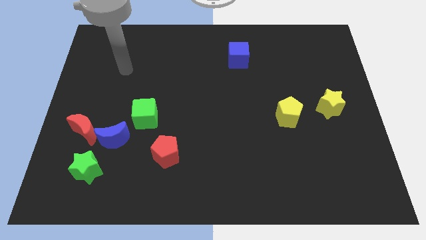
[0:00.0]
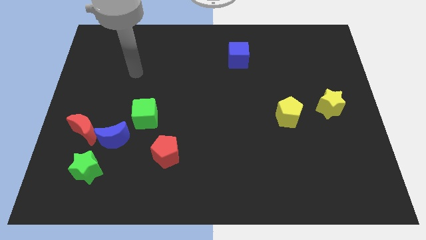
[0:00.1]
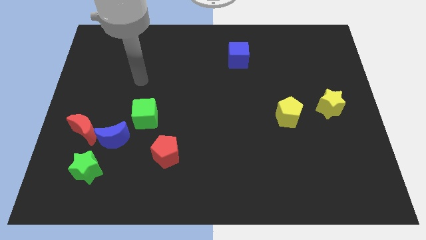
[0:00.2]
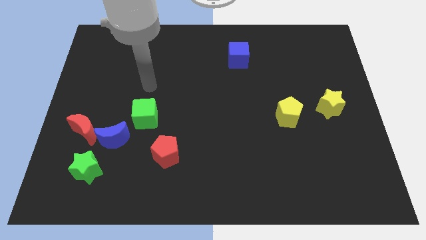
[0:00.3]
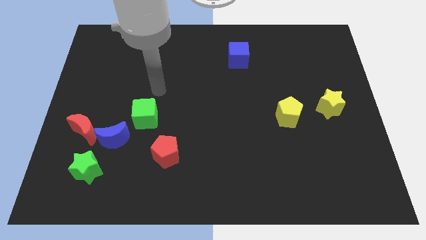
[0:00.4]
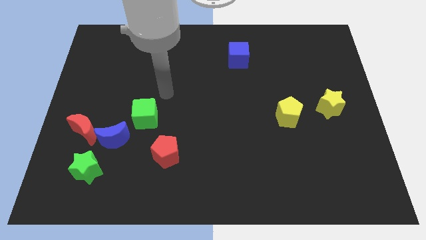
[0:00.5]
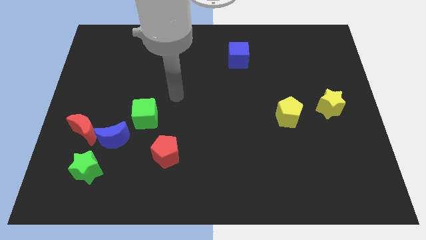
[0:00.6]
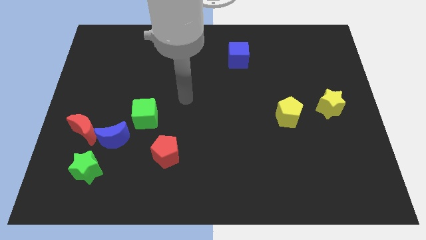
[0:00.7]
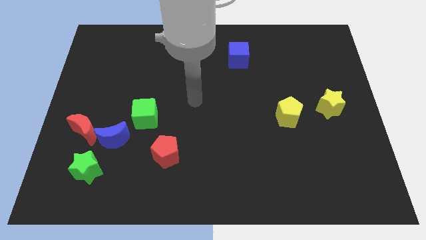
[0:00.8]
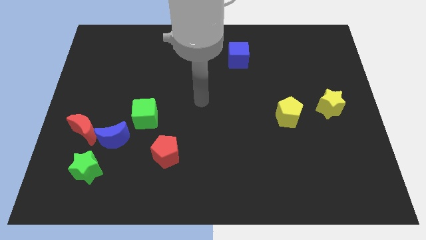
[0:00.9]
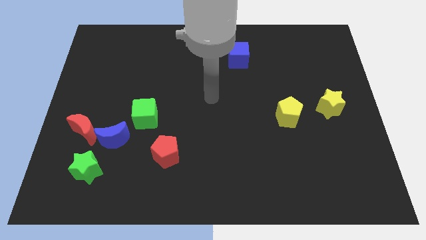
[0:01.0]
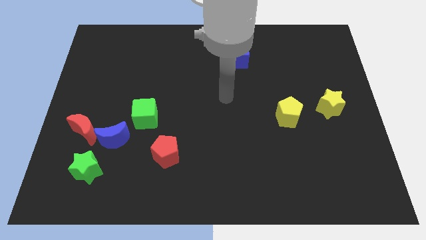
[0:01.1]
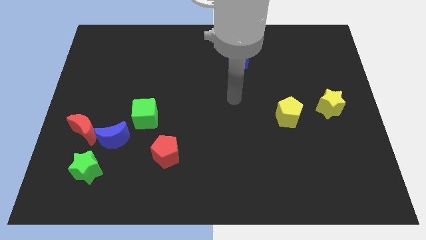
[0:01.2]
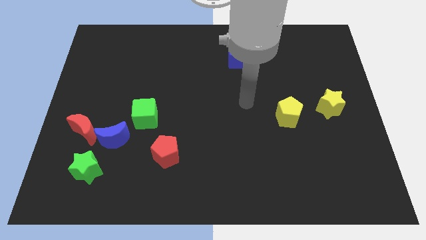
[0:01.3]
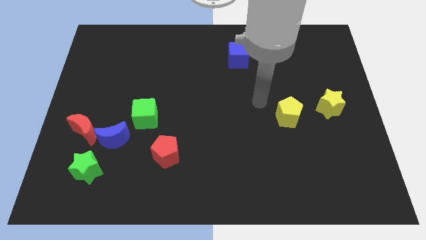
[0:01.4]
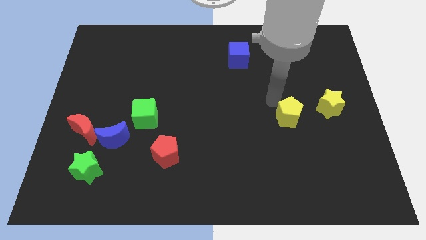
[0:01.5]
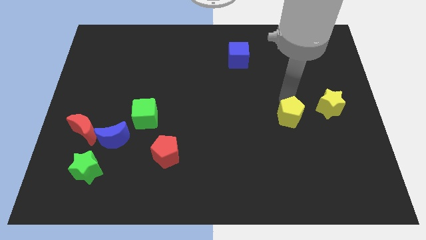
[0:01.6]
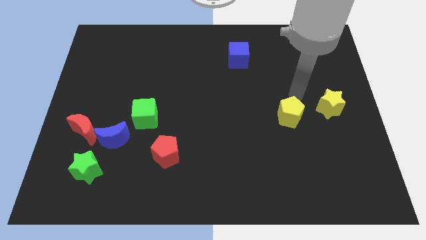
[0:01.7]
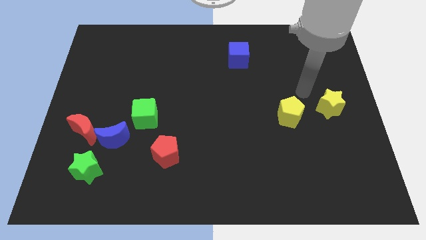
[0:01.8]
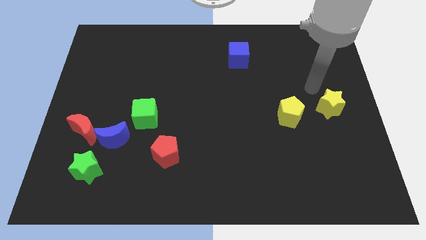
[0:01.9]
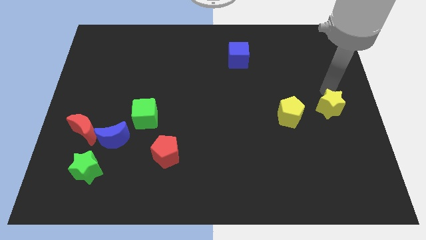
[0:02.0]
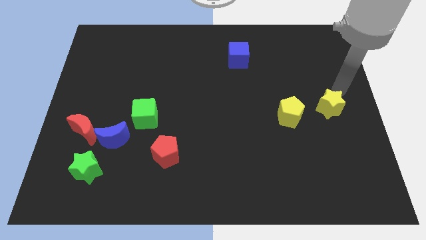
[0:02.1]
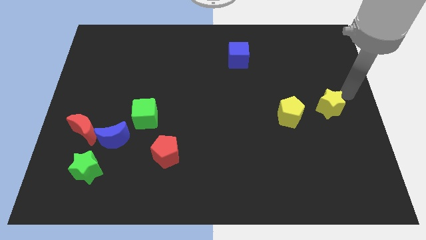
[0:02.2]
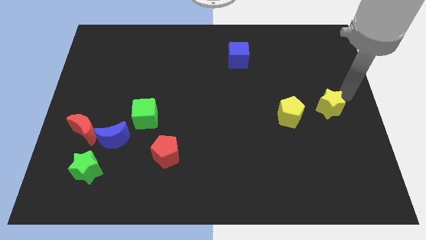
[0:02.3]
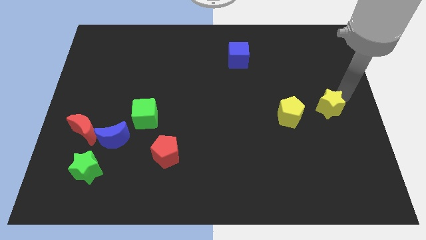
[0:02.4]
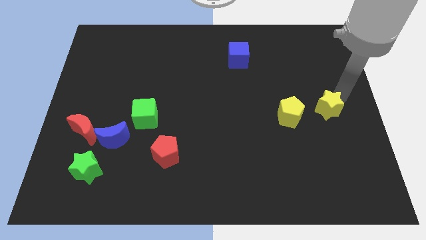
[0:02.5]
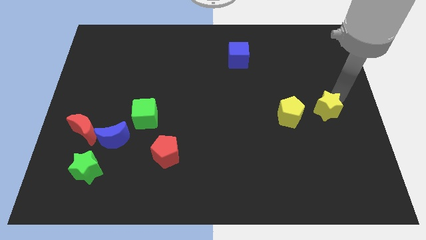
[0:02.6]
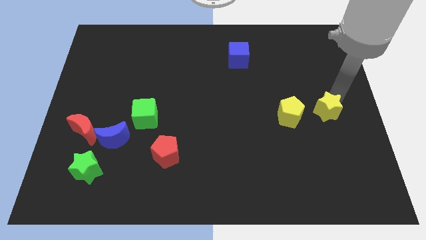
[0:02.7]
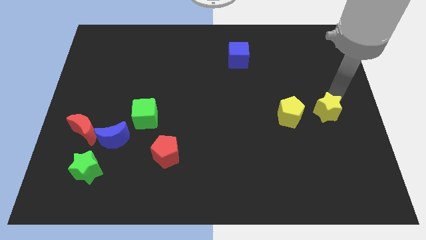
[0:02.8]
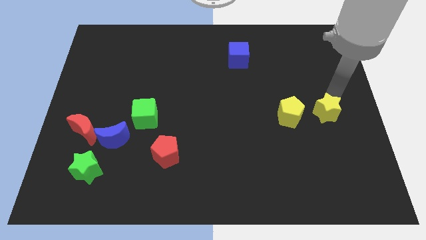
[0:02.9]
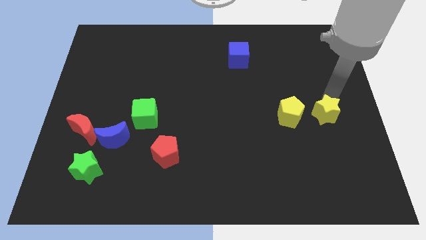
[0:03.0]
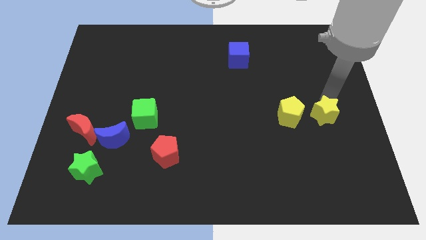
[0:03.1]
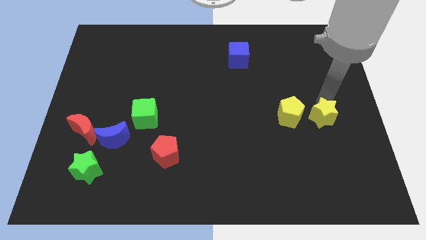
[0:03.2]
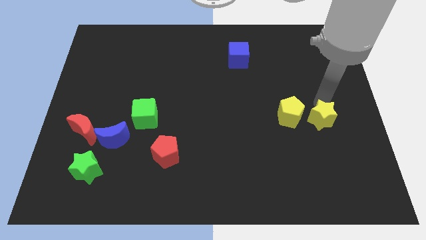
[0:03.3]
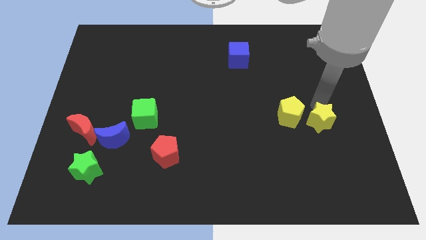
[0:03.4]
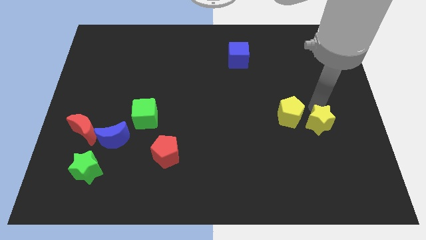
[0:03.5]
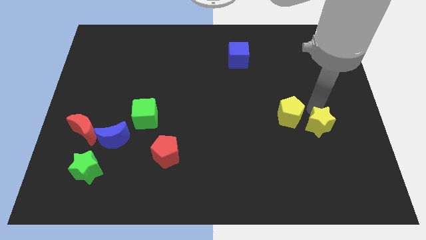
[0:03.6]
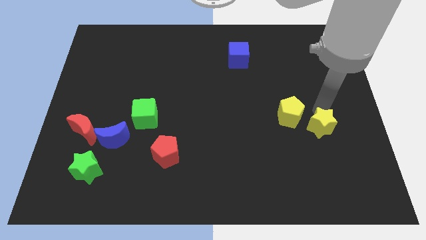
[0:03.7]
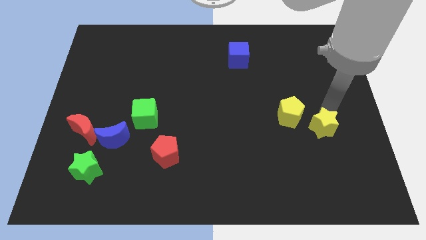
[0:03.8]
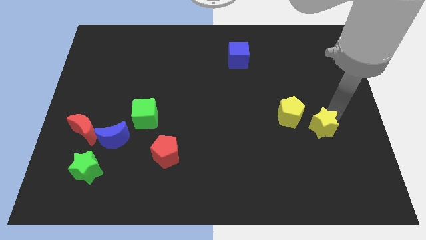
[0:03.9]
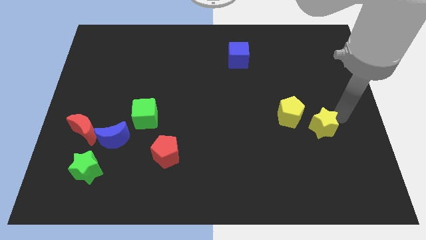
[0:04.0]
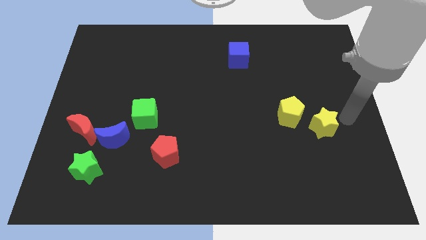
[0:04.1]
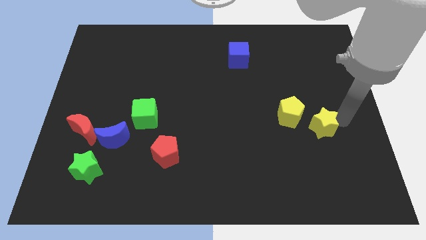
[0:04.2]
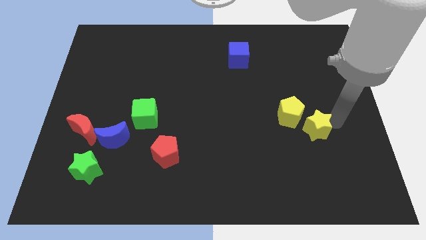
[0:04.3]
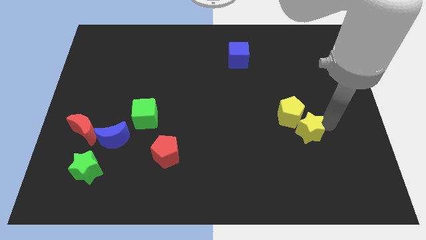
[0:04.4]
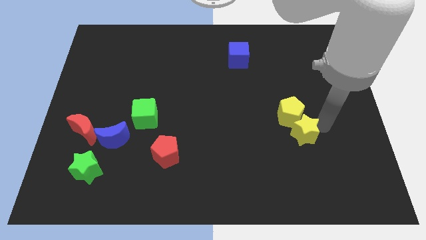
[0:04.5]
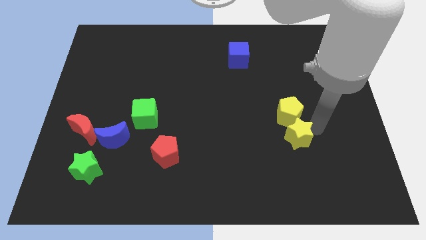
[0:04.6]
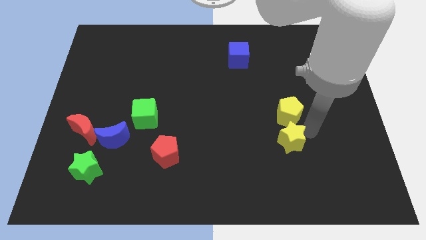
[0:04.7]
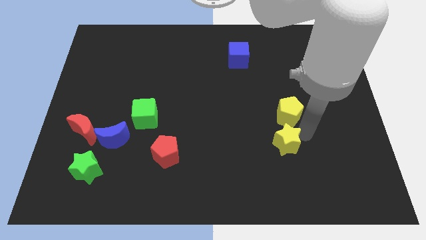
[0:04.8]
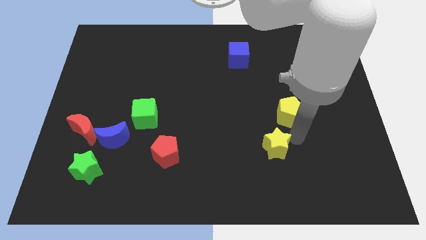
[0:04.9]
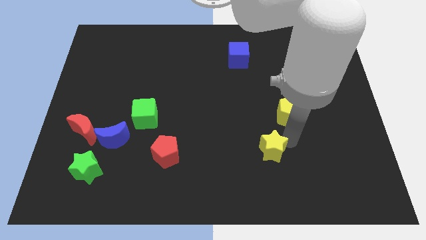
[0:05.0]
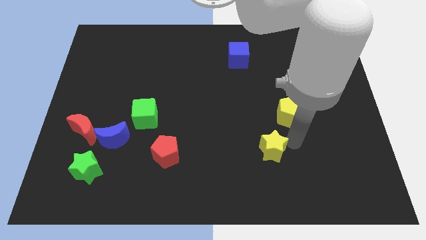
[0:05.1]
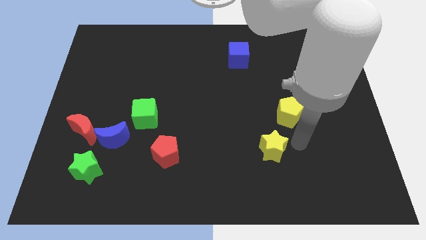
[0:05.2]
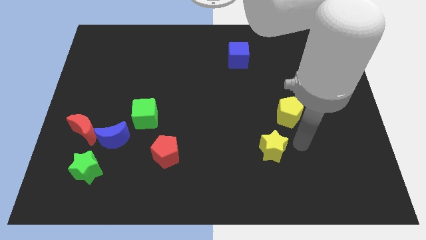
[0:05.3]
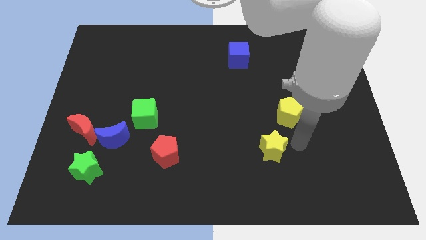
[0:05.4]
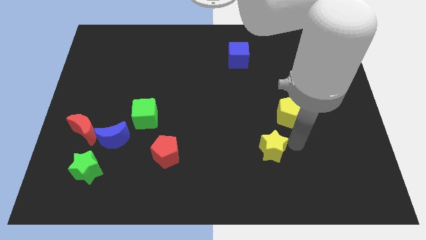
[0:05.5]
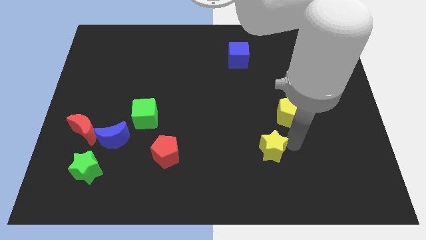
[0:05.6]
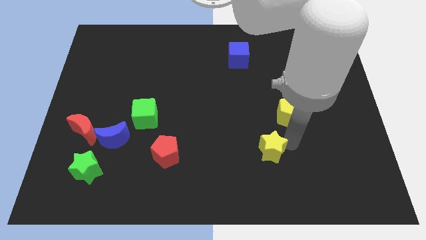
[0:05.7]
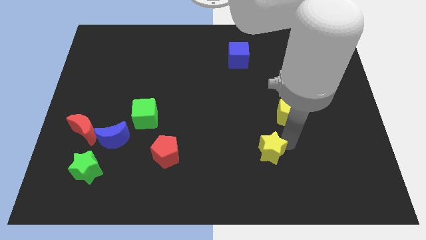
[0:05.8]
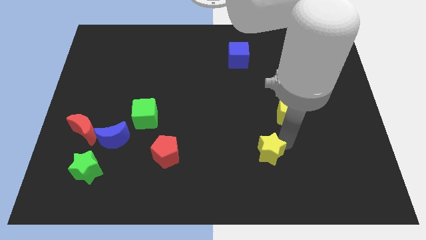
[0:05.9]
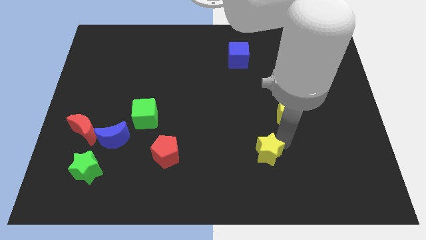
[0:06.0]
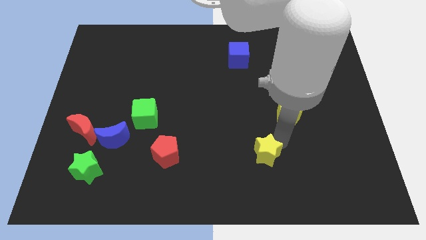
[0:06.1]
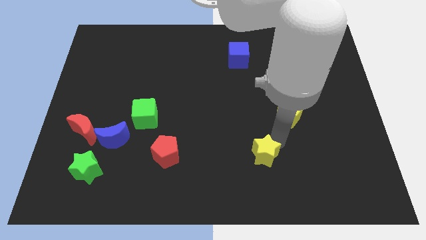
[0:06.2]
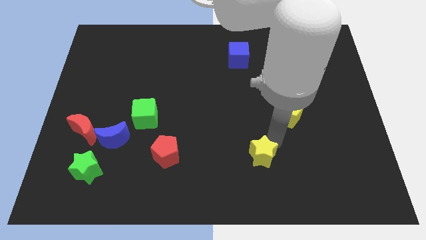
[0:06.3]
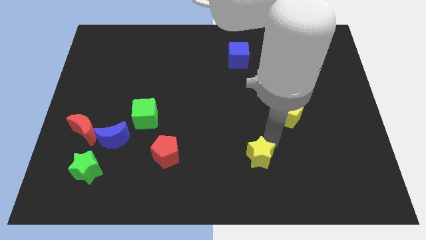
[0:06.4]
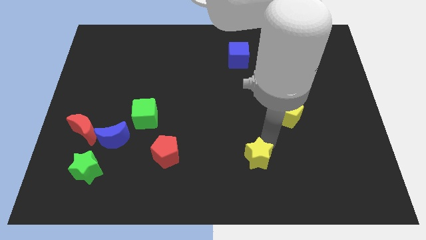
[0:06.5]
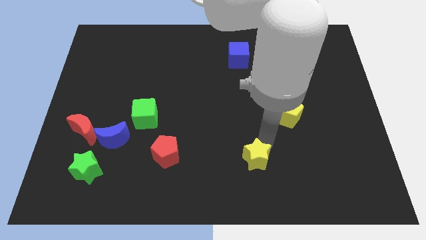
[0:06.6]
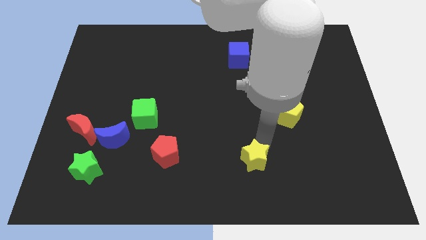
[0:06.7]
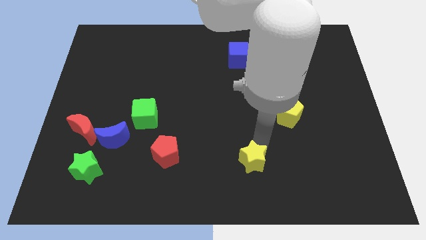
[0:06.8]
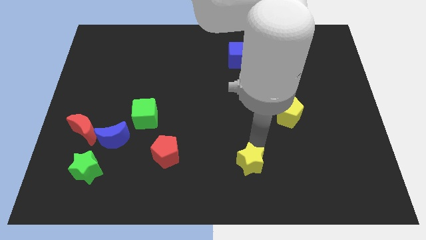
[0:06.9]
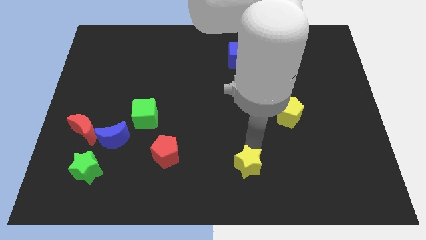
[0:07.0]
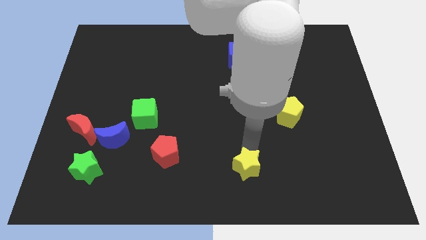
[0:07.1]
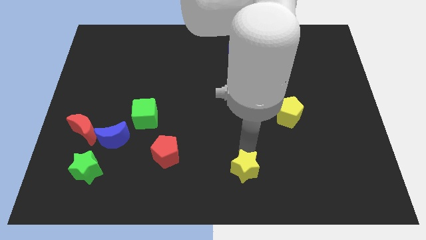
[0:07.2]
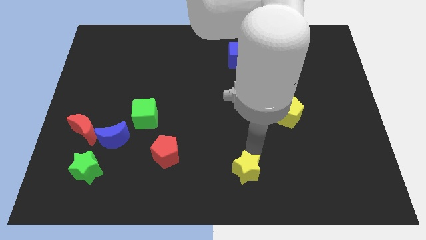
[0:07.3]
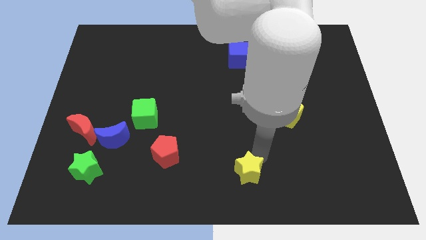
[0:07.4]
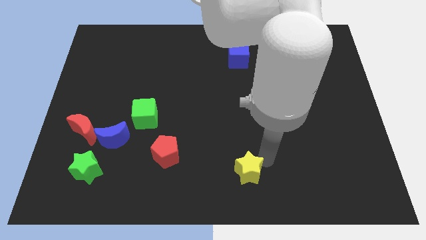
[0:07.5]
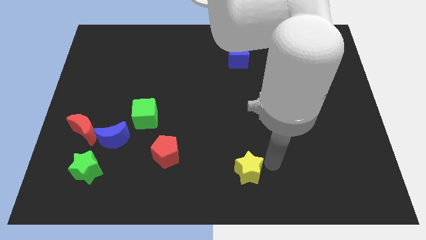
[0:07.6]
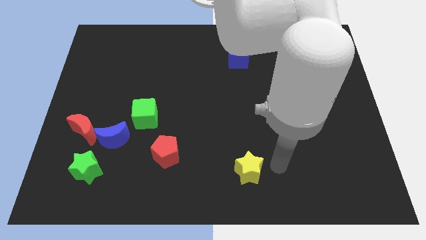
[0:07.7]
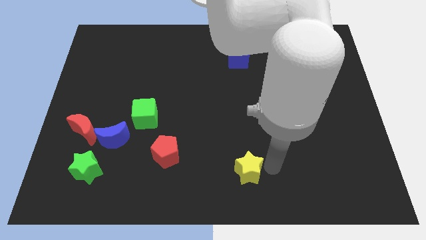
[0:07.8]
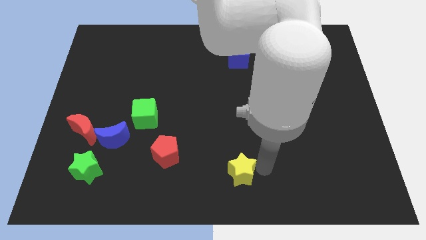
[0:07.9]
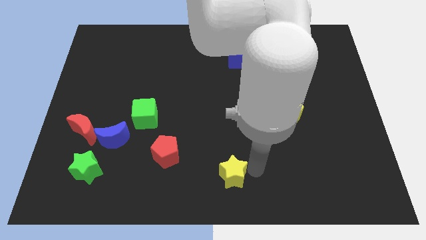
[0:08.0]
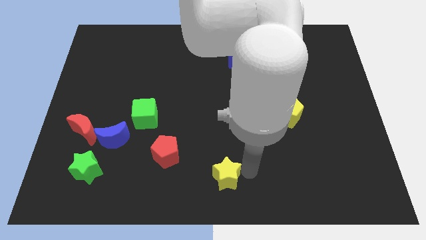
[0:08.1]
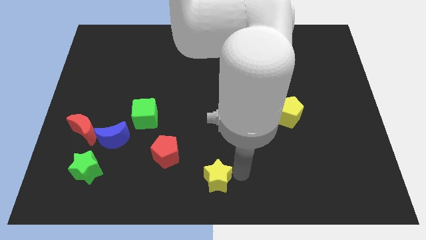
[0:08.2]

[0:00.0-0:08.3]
push the yellow star to the bottom right of the red pentagon
